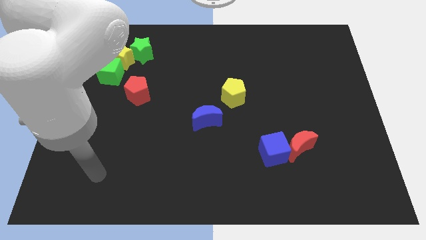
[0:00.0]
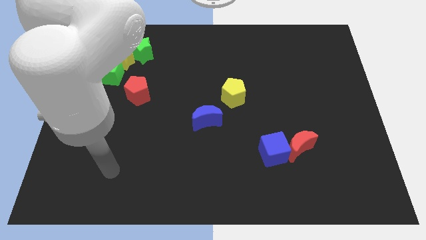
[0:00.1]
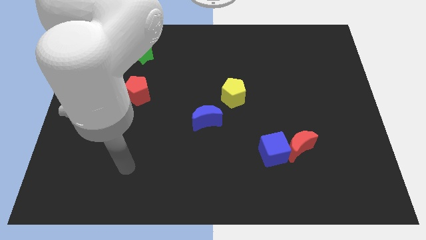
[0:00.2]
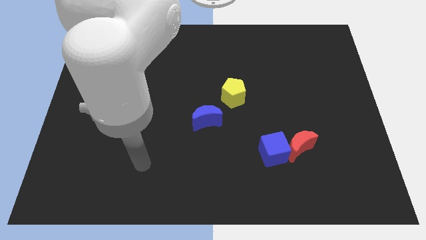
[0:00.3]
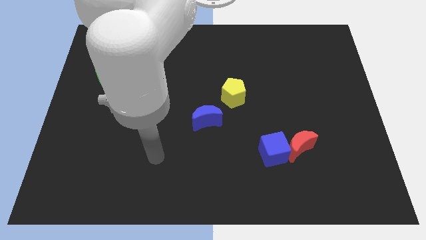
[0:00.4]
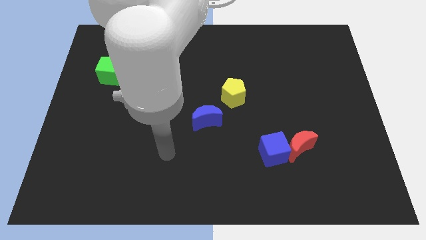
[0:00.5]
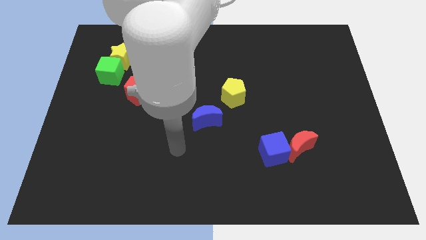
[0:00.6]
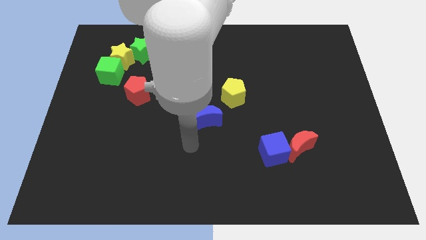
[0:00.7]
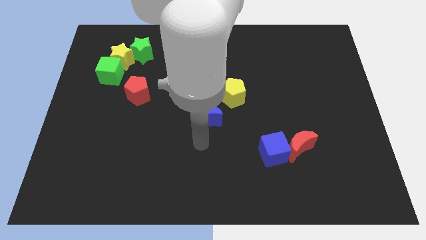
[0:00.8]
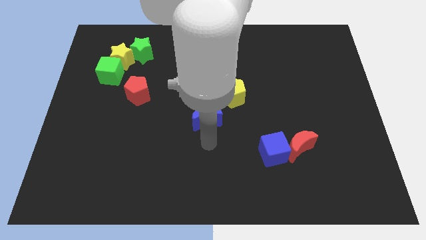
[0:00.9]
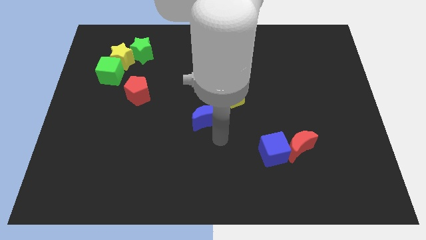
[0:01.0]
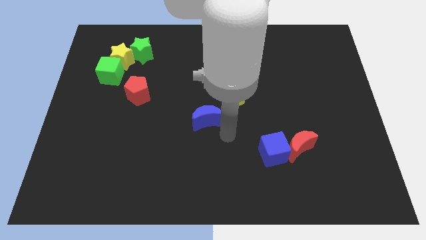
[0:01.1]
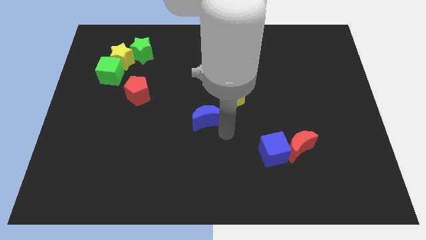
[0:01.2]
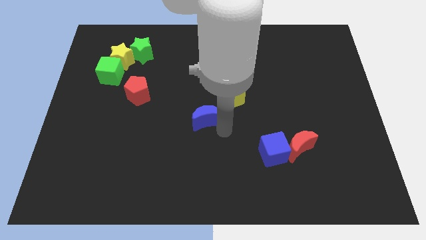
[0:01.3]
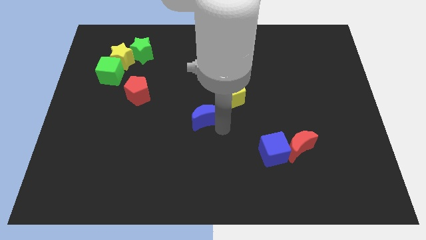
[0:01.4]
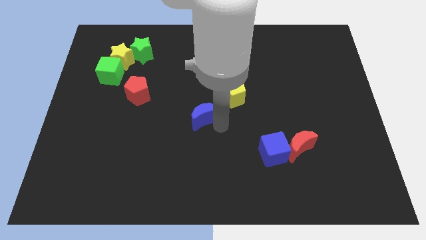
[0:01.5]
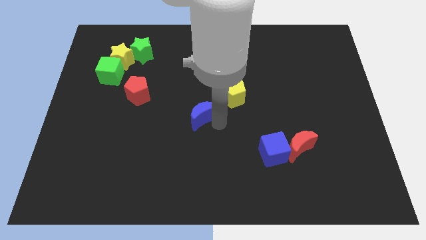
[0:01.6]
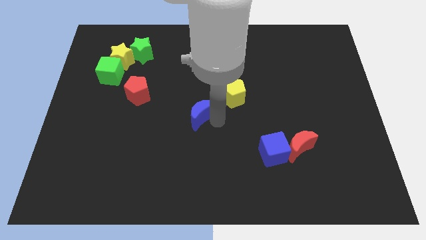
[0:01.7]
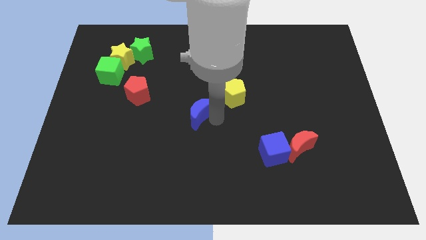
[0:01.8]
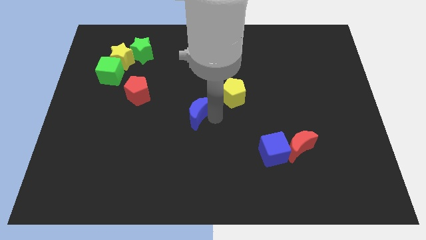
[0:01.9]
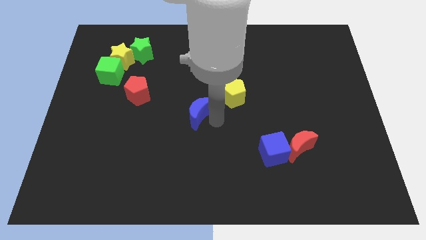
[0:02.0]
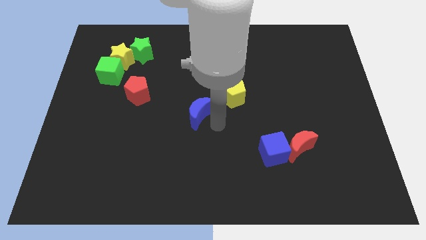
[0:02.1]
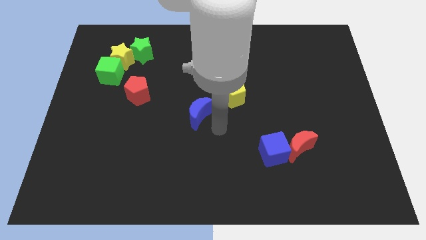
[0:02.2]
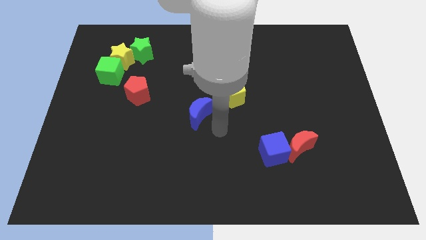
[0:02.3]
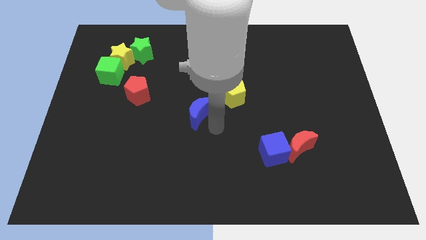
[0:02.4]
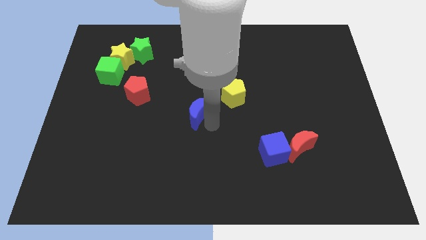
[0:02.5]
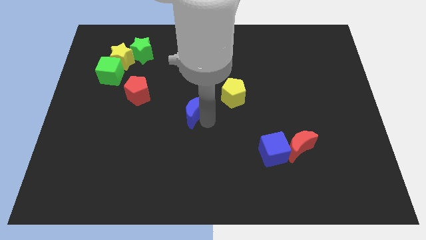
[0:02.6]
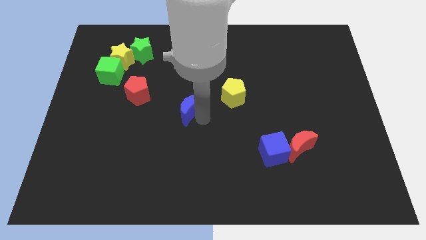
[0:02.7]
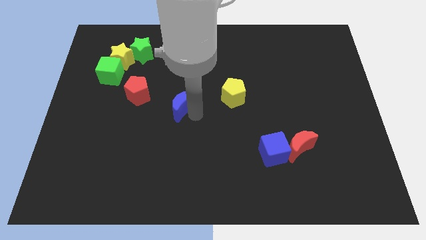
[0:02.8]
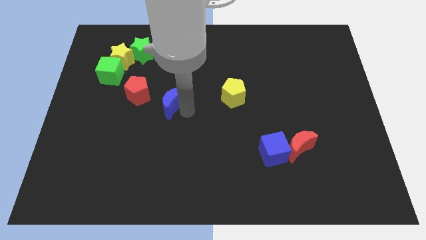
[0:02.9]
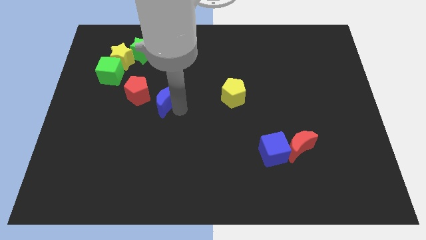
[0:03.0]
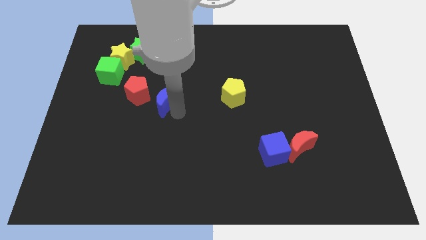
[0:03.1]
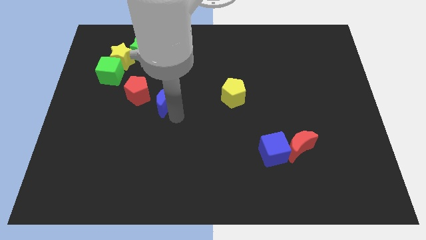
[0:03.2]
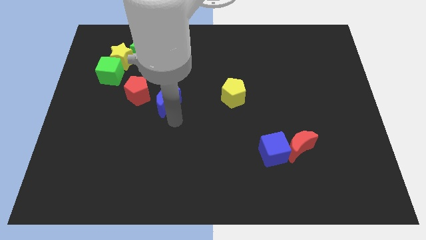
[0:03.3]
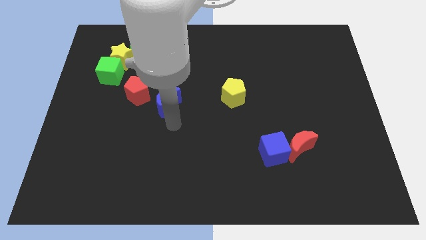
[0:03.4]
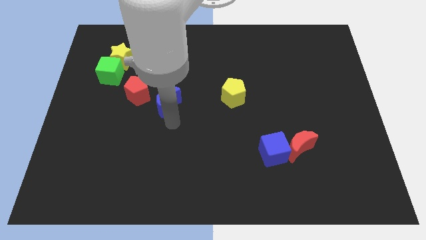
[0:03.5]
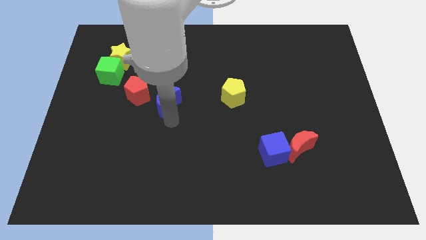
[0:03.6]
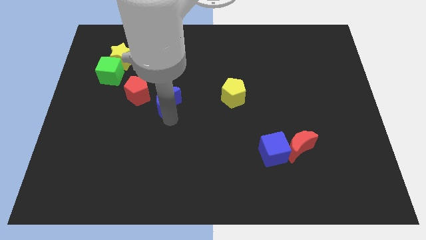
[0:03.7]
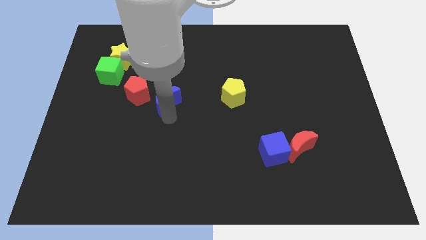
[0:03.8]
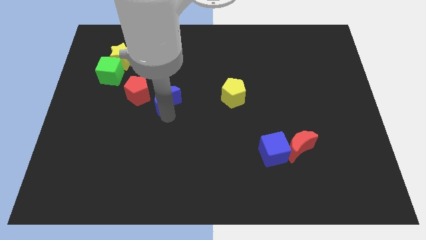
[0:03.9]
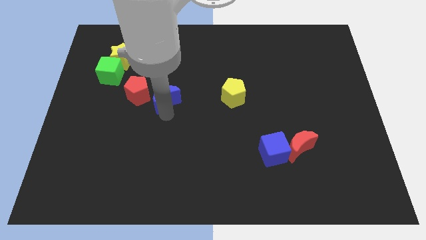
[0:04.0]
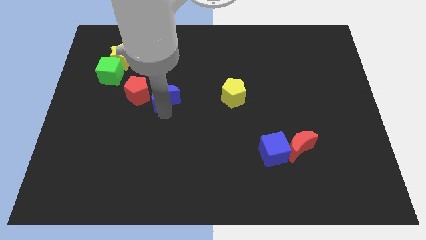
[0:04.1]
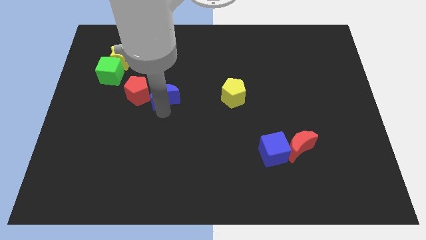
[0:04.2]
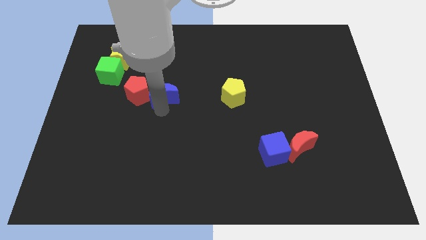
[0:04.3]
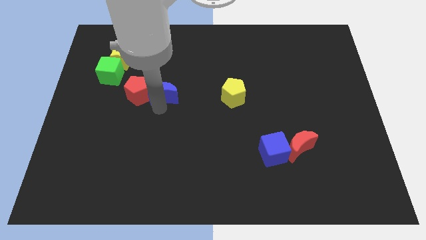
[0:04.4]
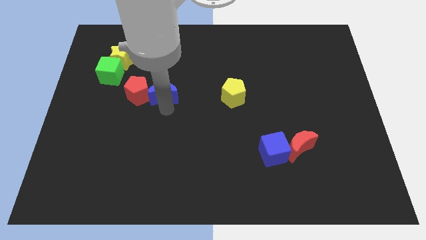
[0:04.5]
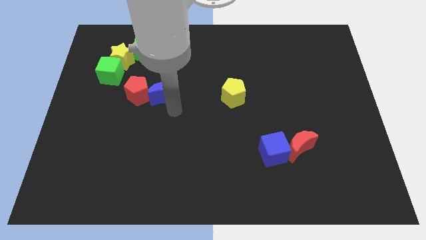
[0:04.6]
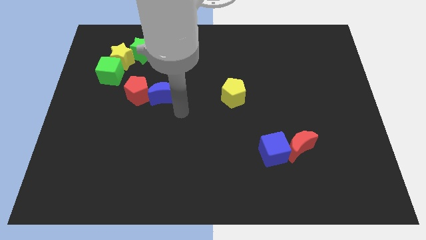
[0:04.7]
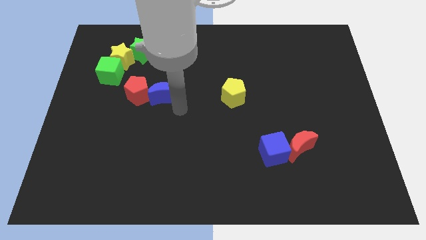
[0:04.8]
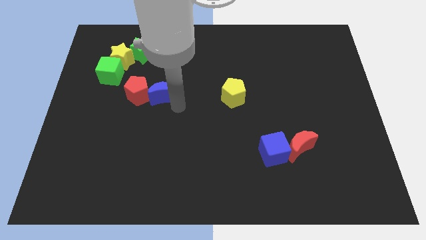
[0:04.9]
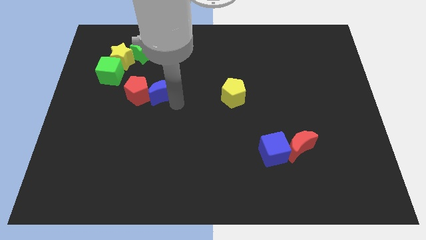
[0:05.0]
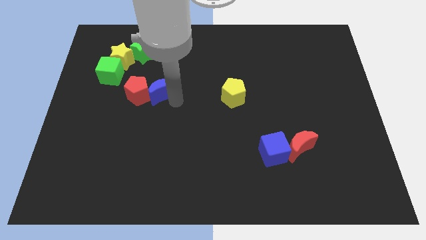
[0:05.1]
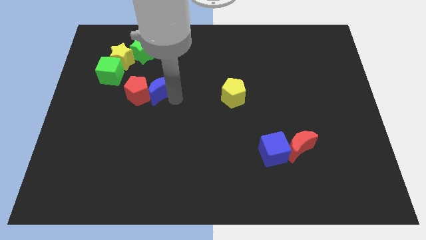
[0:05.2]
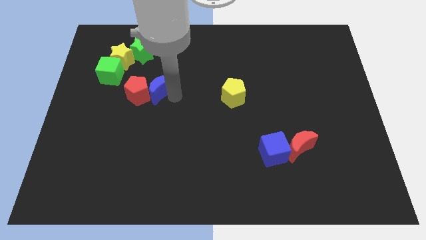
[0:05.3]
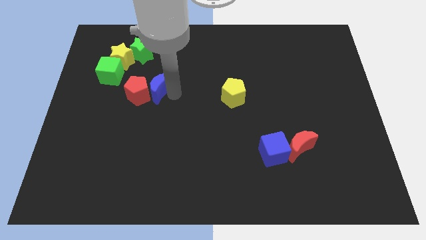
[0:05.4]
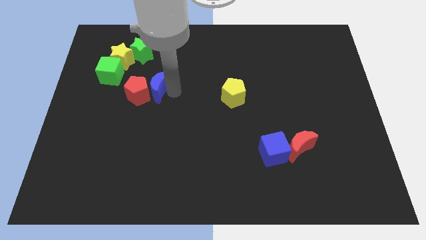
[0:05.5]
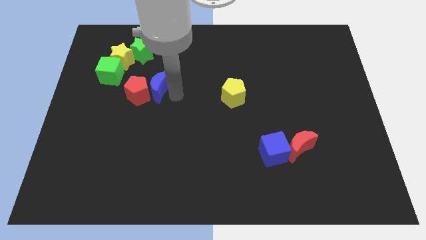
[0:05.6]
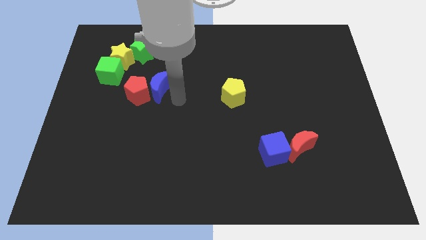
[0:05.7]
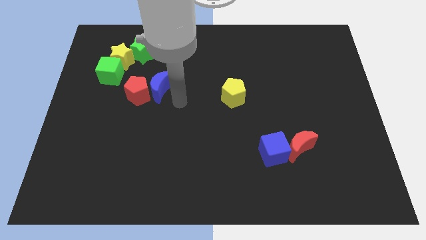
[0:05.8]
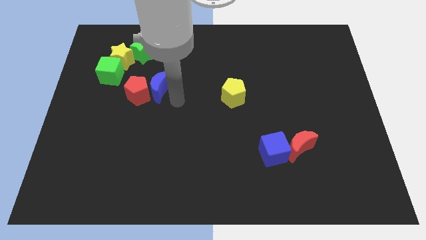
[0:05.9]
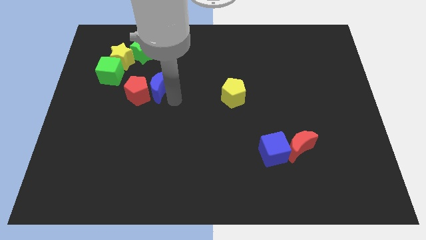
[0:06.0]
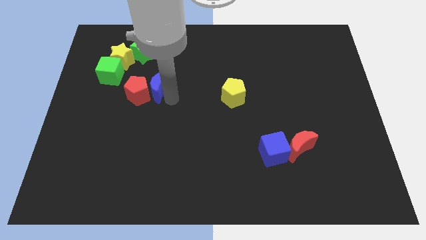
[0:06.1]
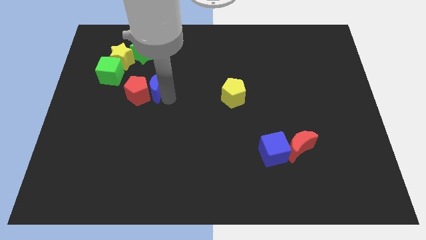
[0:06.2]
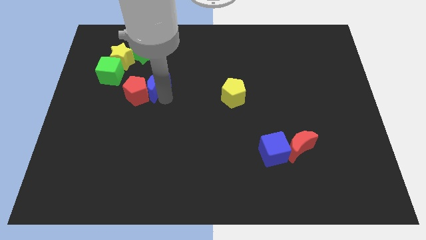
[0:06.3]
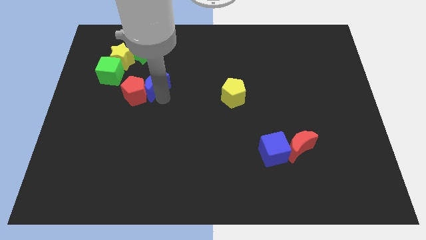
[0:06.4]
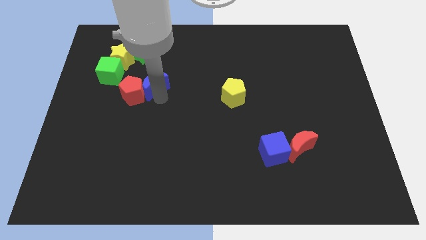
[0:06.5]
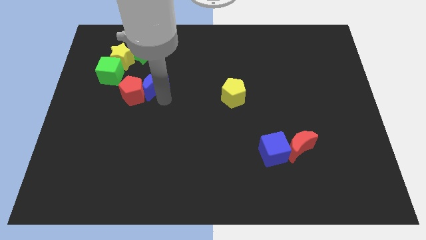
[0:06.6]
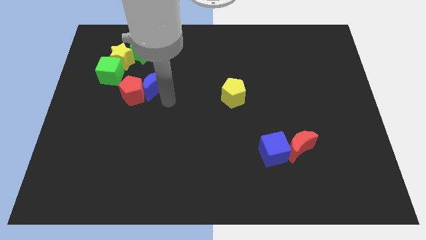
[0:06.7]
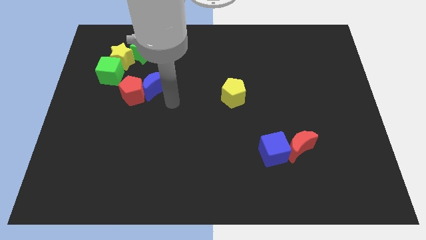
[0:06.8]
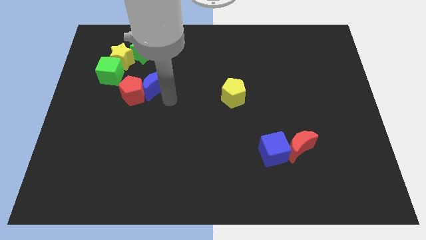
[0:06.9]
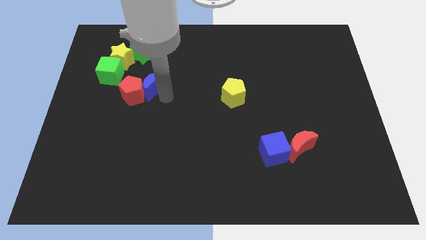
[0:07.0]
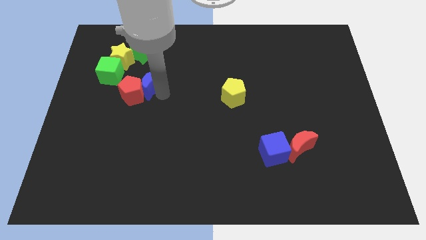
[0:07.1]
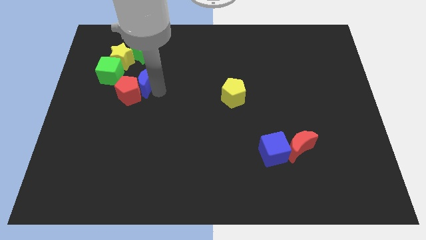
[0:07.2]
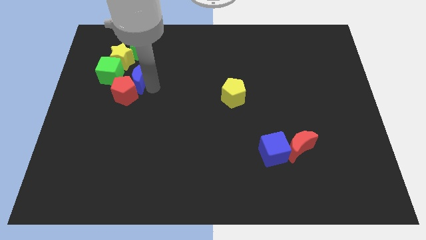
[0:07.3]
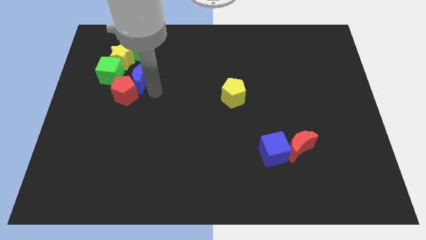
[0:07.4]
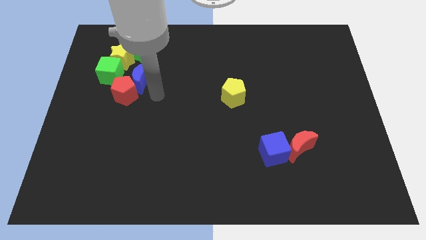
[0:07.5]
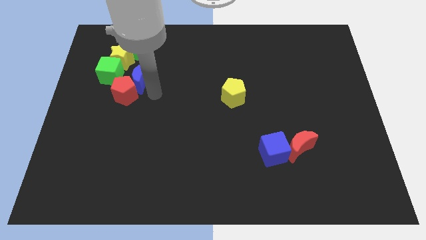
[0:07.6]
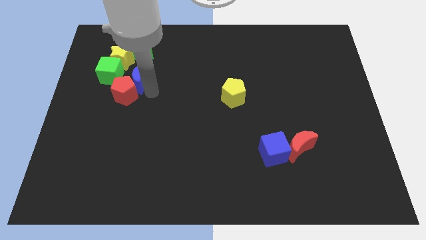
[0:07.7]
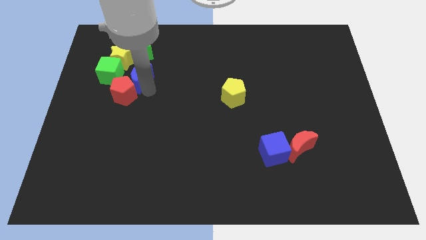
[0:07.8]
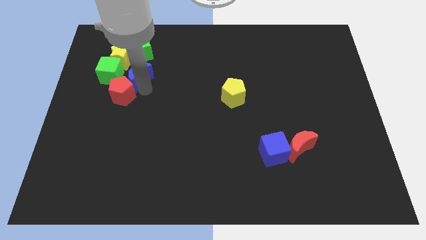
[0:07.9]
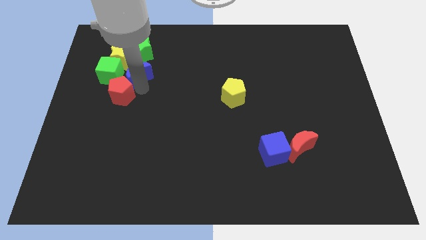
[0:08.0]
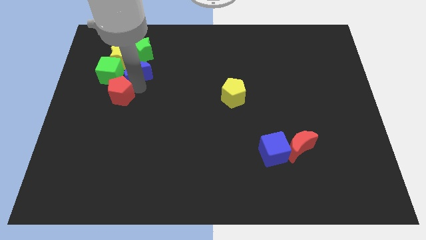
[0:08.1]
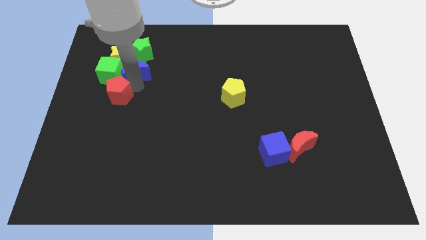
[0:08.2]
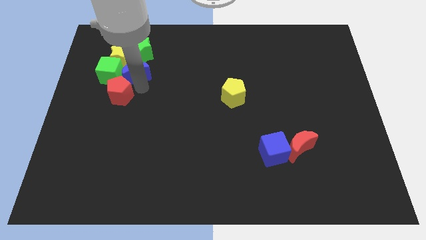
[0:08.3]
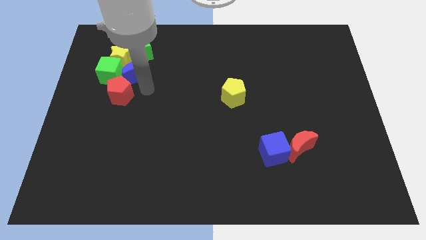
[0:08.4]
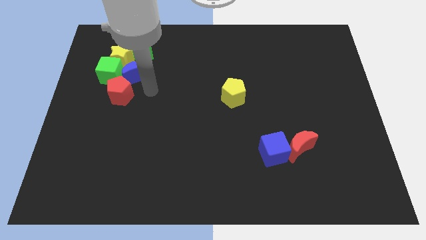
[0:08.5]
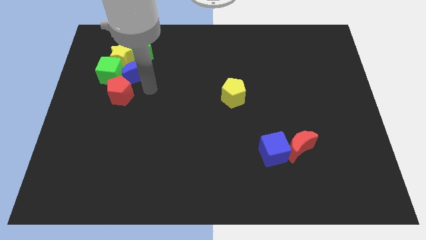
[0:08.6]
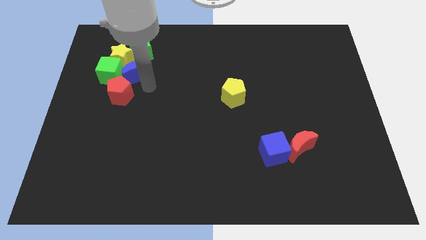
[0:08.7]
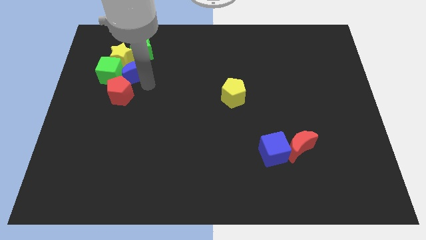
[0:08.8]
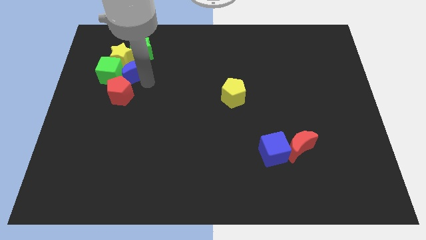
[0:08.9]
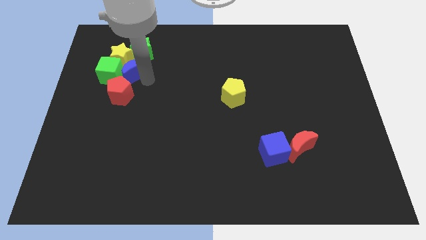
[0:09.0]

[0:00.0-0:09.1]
put the blue moon next to the yellow star
